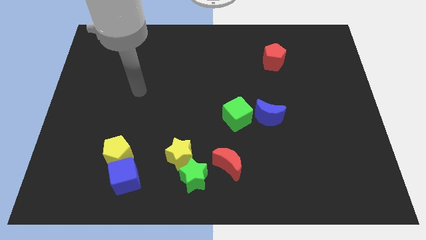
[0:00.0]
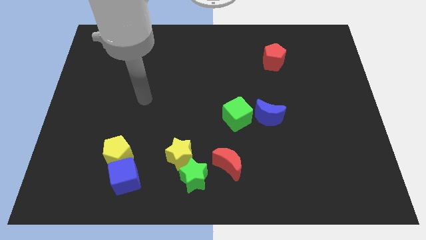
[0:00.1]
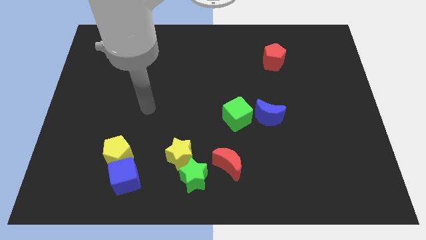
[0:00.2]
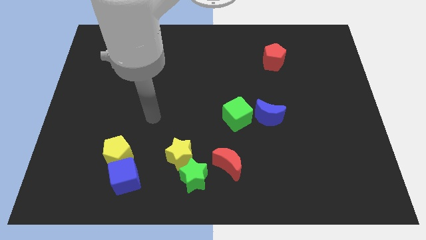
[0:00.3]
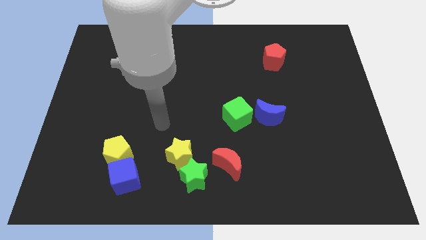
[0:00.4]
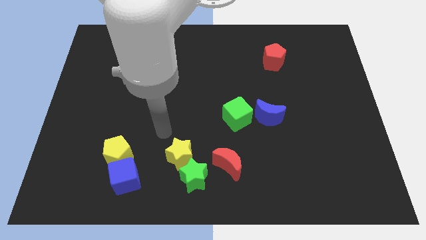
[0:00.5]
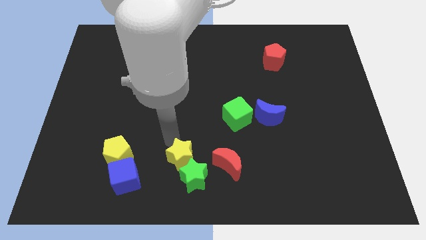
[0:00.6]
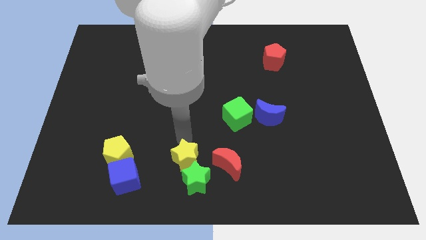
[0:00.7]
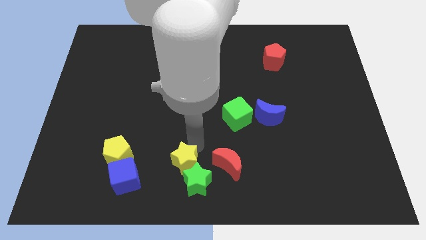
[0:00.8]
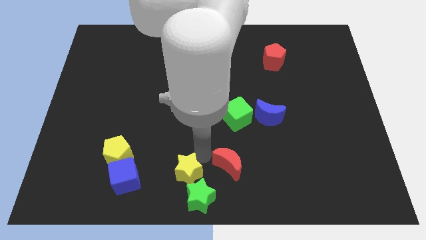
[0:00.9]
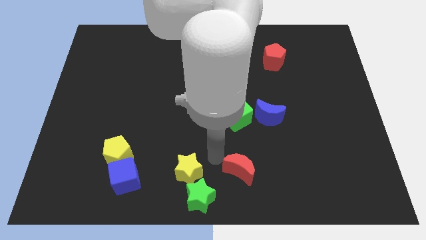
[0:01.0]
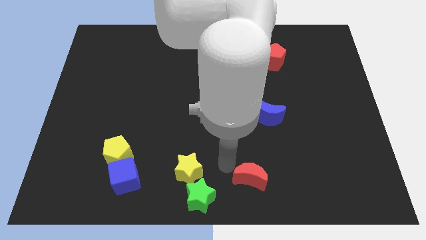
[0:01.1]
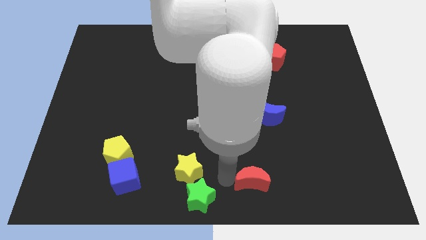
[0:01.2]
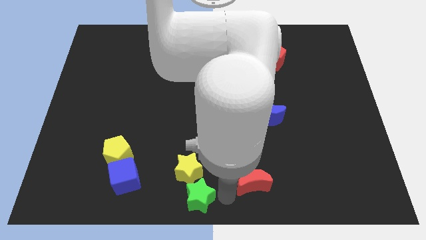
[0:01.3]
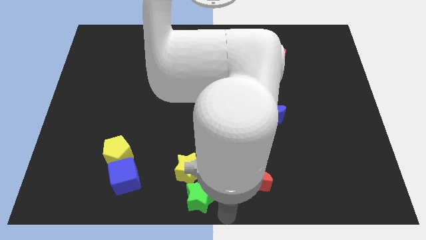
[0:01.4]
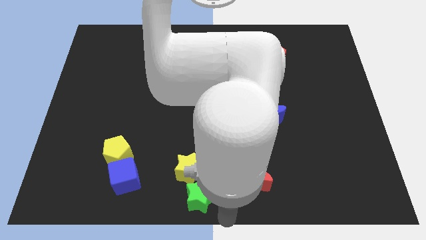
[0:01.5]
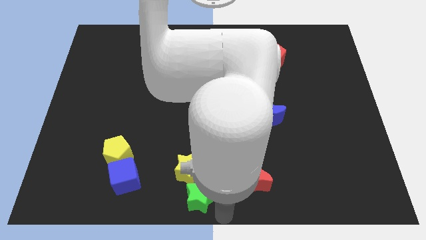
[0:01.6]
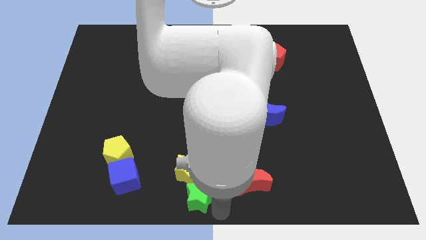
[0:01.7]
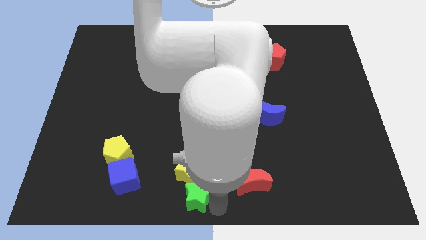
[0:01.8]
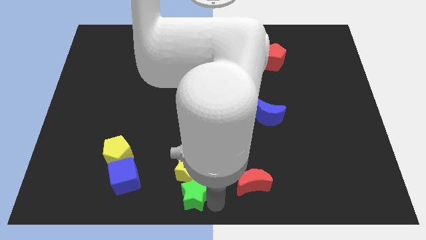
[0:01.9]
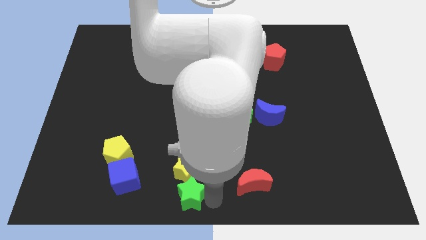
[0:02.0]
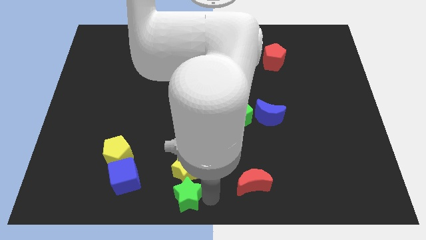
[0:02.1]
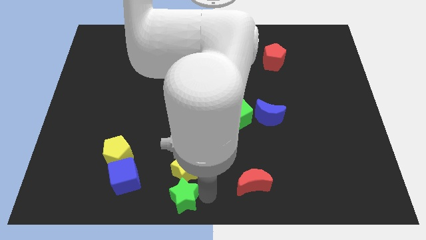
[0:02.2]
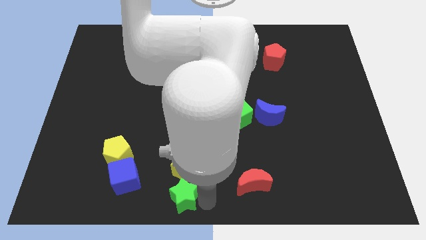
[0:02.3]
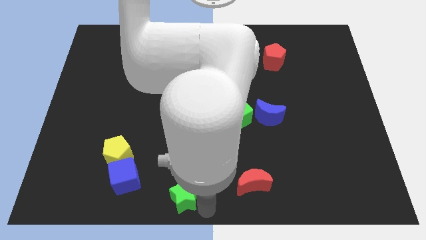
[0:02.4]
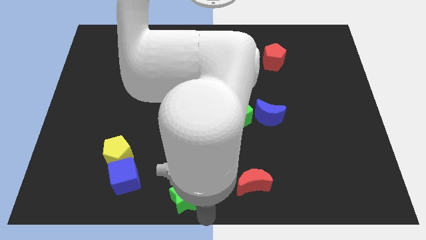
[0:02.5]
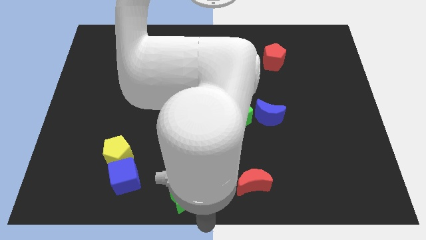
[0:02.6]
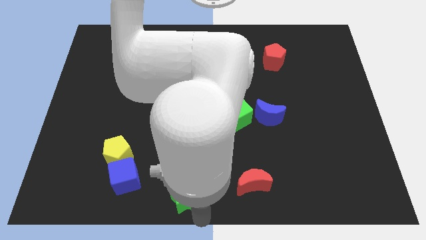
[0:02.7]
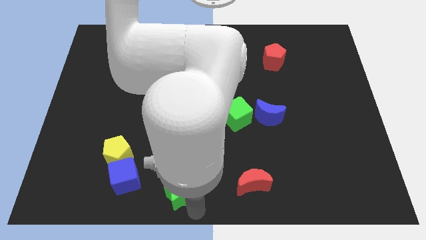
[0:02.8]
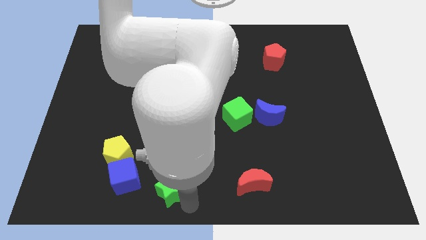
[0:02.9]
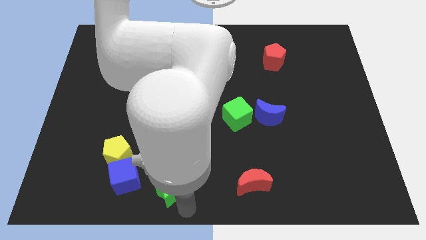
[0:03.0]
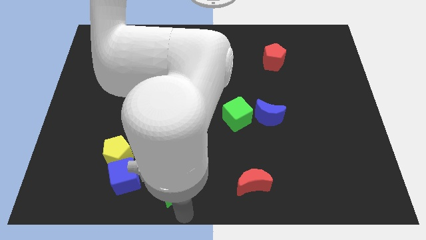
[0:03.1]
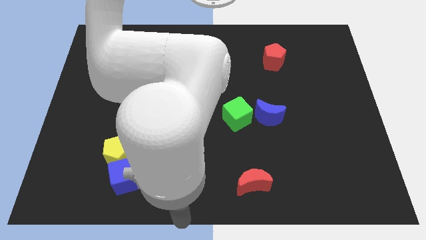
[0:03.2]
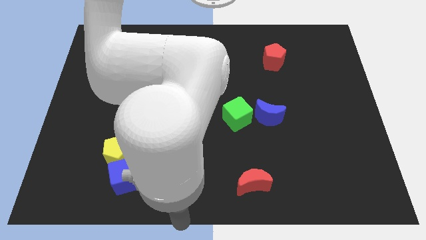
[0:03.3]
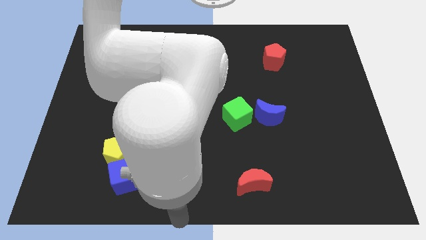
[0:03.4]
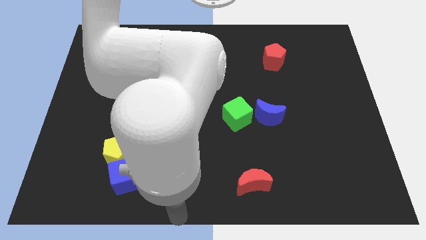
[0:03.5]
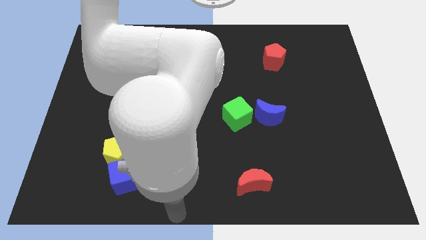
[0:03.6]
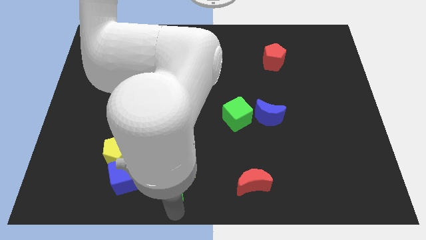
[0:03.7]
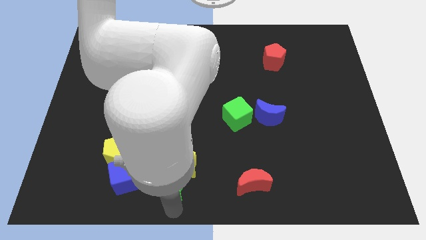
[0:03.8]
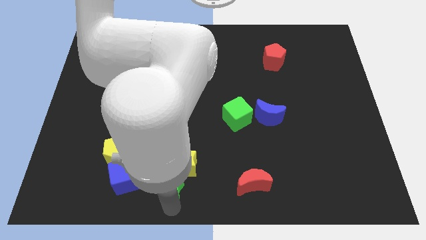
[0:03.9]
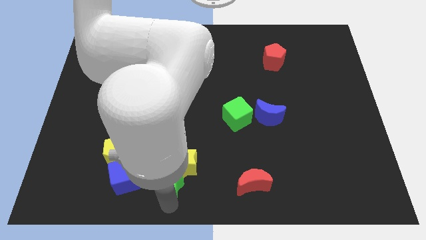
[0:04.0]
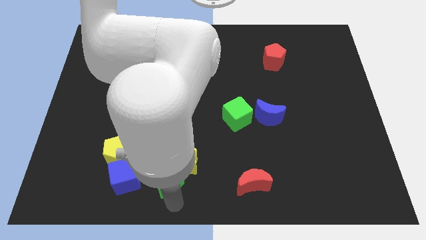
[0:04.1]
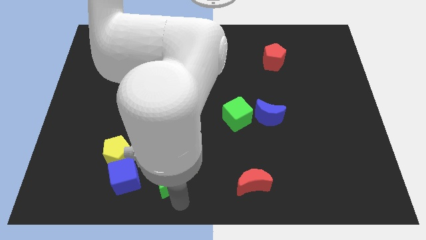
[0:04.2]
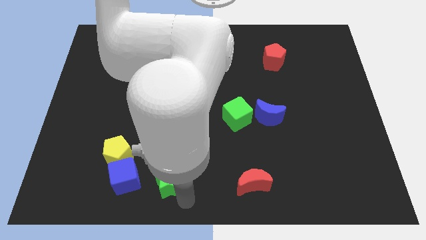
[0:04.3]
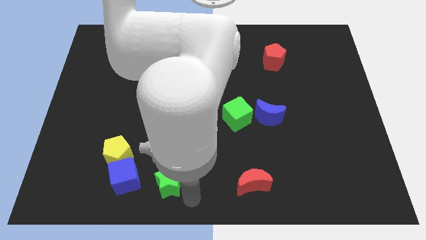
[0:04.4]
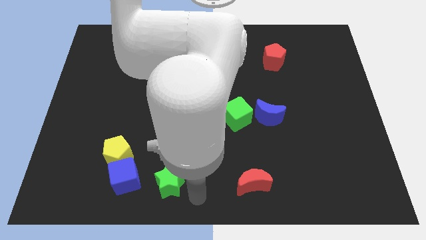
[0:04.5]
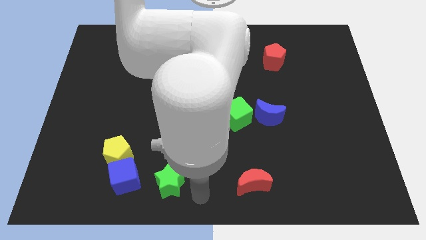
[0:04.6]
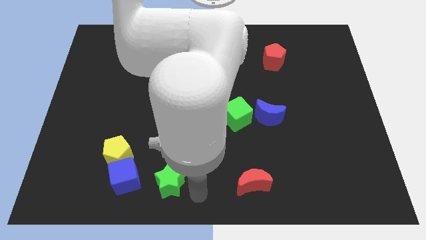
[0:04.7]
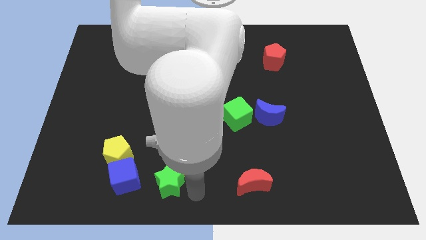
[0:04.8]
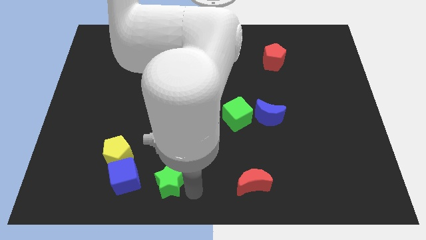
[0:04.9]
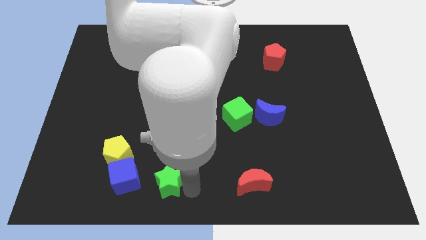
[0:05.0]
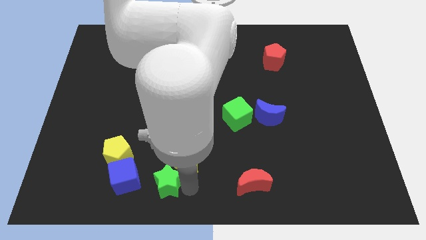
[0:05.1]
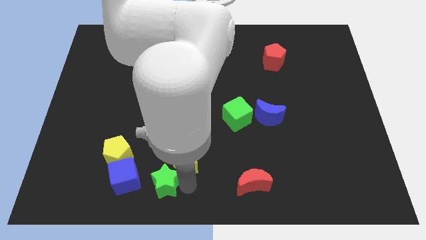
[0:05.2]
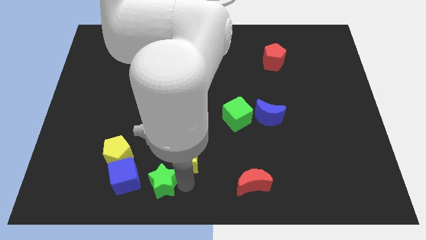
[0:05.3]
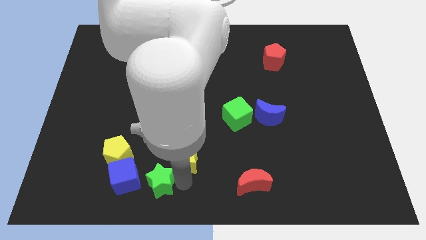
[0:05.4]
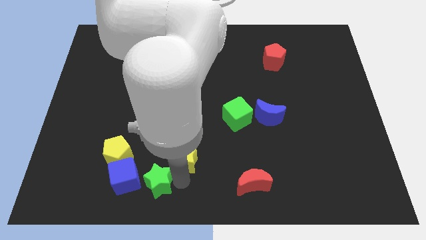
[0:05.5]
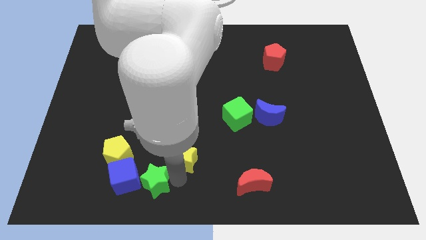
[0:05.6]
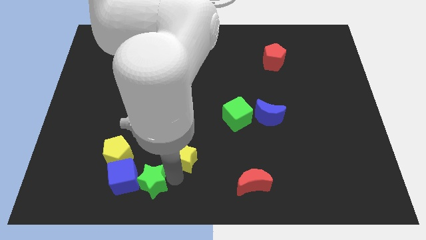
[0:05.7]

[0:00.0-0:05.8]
move the green star next to the blue cube

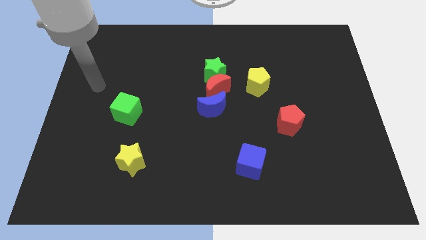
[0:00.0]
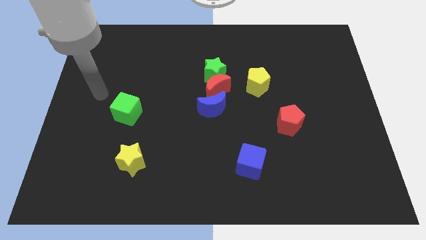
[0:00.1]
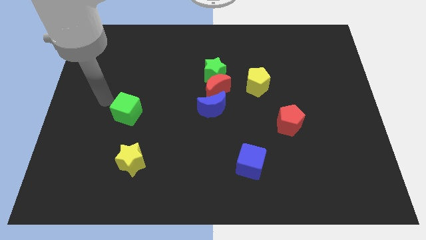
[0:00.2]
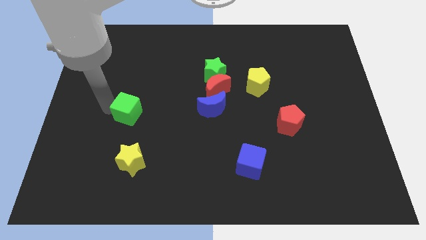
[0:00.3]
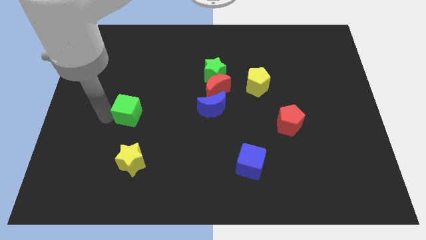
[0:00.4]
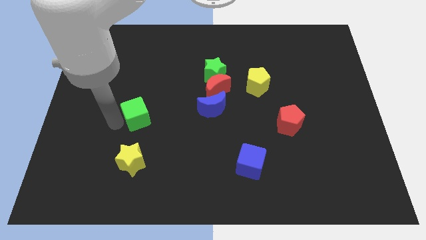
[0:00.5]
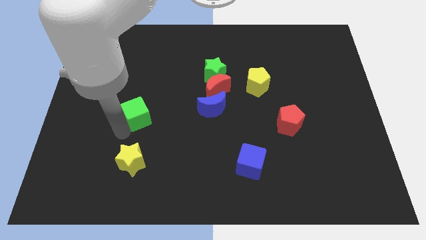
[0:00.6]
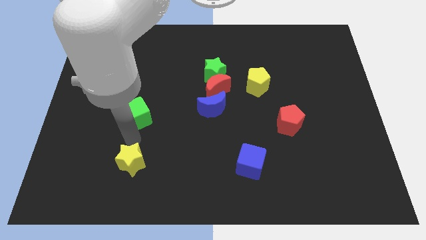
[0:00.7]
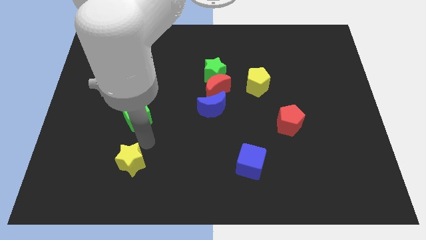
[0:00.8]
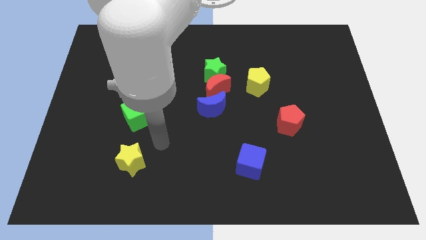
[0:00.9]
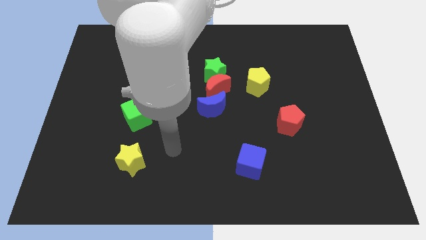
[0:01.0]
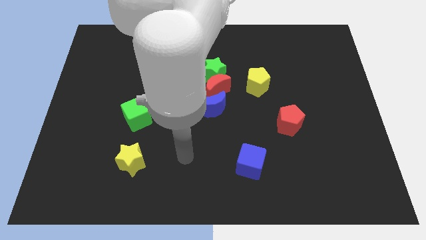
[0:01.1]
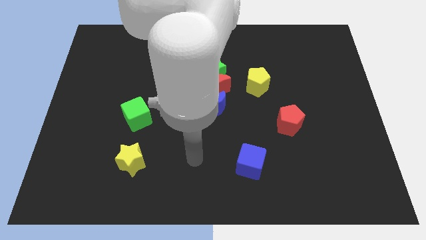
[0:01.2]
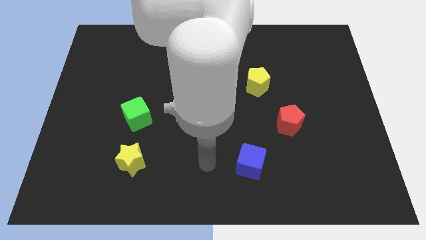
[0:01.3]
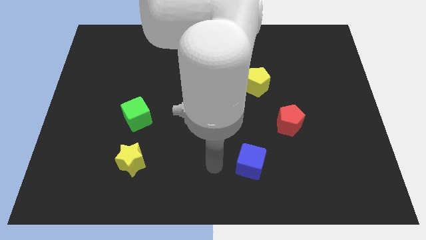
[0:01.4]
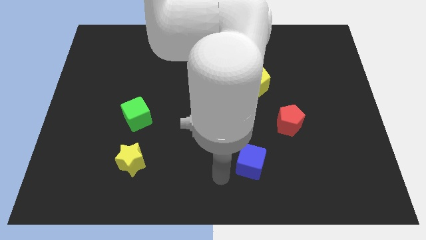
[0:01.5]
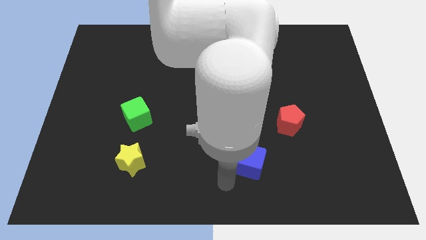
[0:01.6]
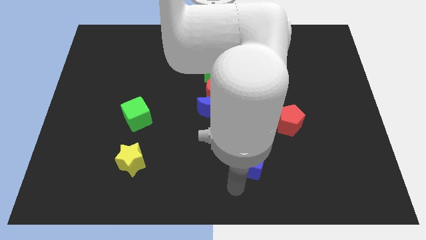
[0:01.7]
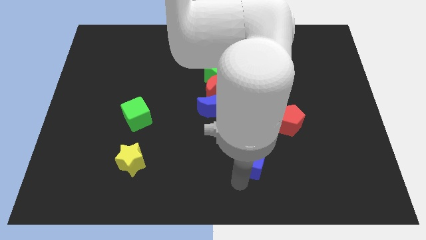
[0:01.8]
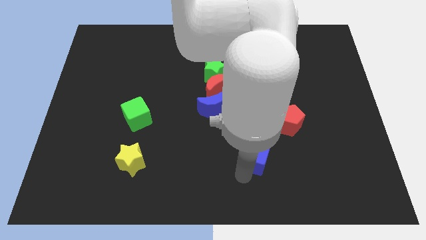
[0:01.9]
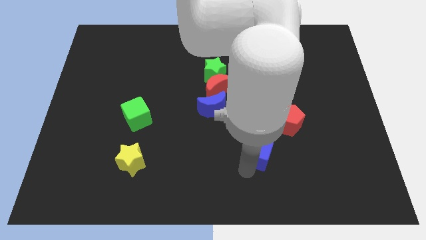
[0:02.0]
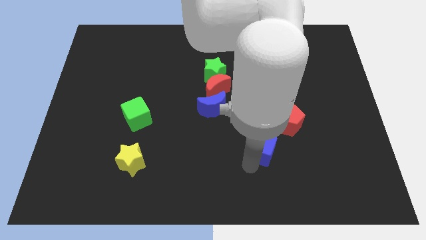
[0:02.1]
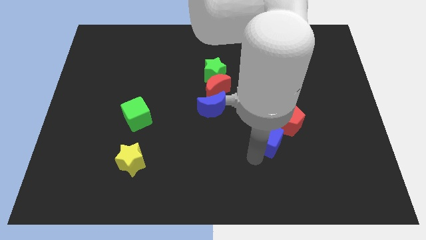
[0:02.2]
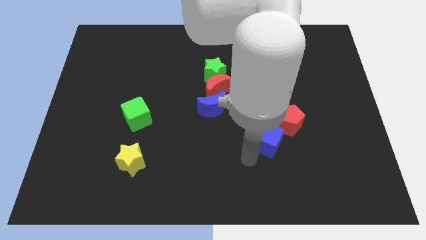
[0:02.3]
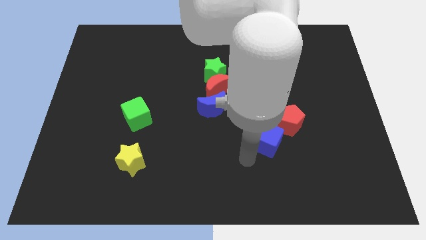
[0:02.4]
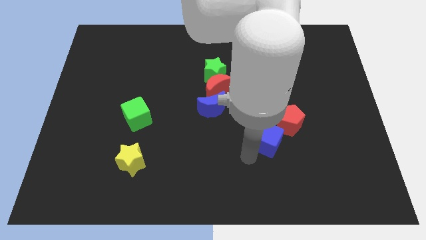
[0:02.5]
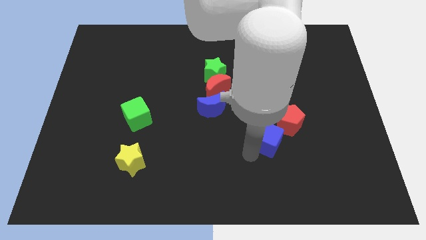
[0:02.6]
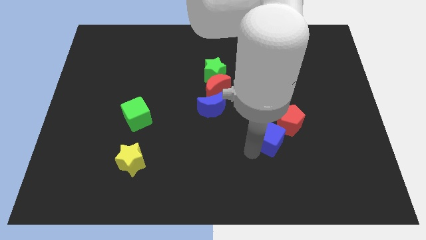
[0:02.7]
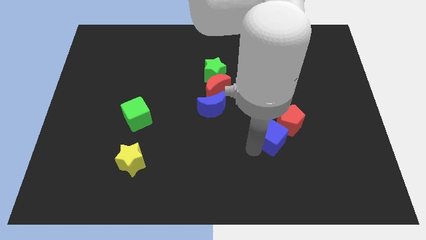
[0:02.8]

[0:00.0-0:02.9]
move the blue cube to the red pentagon
